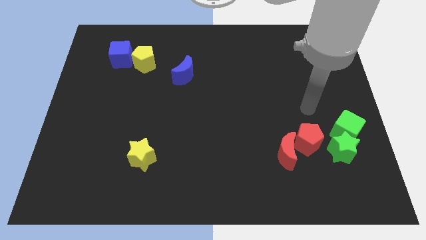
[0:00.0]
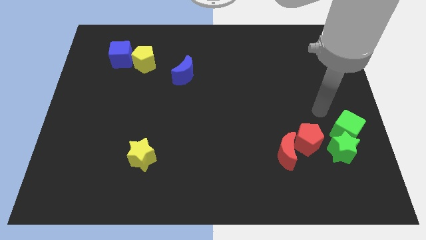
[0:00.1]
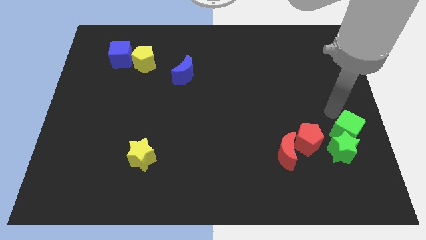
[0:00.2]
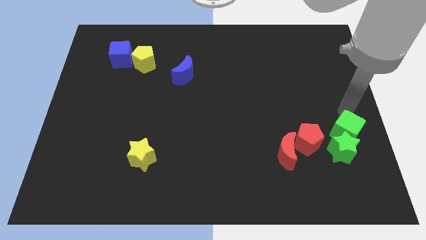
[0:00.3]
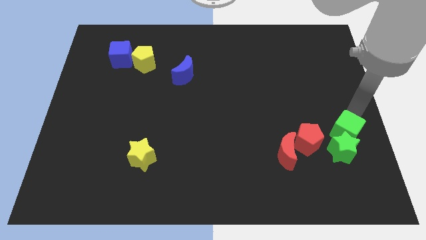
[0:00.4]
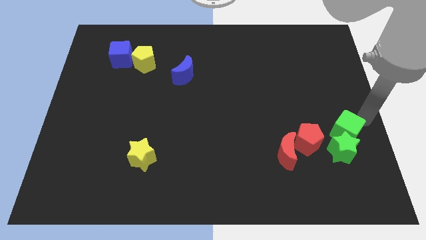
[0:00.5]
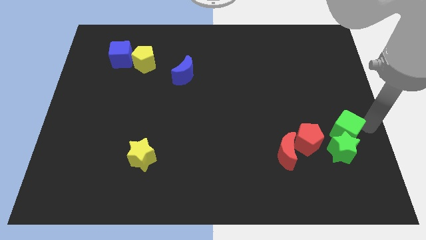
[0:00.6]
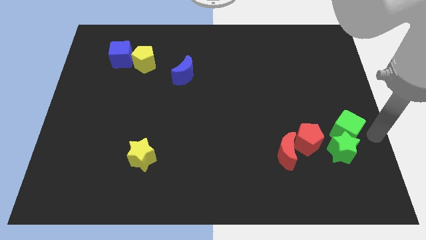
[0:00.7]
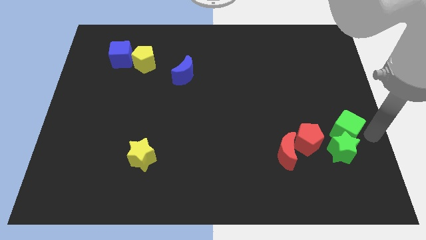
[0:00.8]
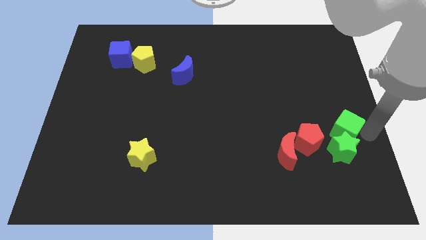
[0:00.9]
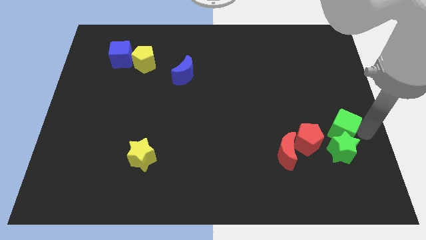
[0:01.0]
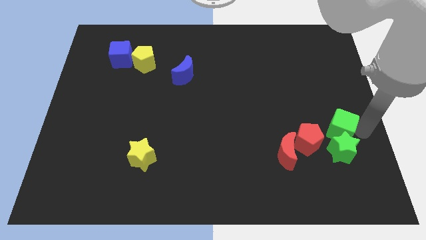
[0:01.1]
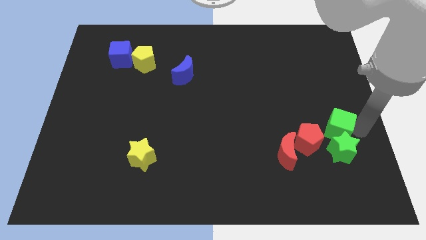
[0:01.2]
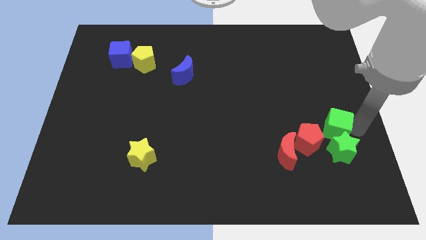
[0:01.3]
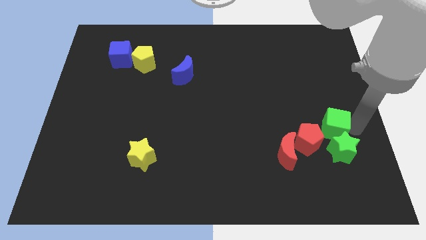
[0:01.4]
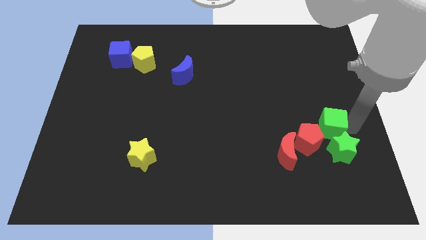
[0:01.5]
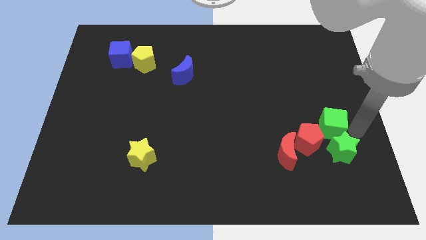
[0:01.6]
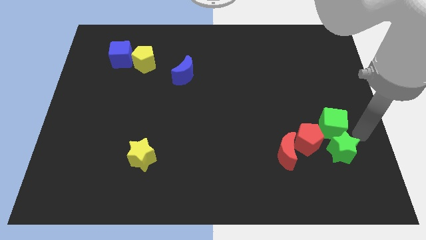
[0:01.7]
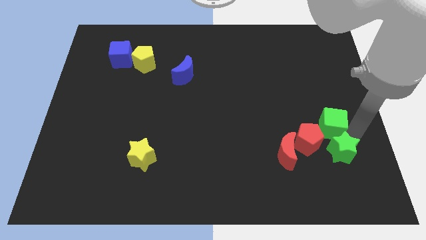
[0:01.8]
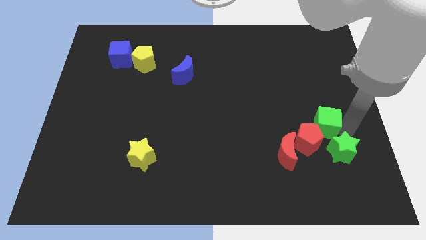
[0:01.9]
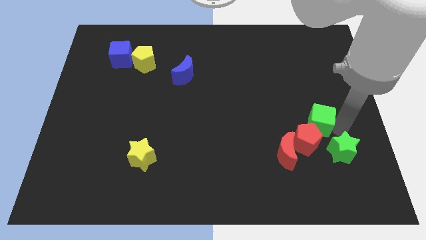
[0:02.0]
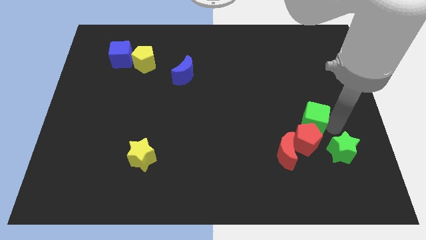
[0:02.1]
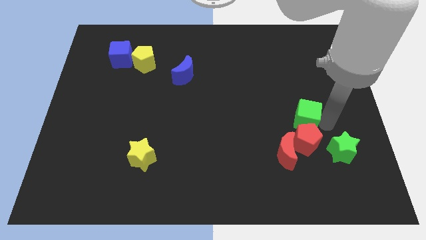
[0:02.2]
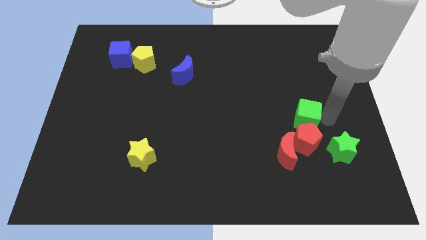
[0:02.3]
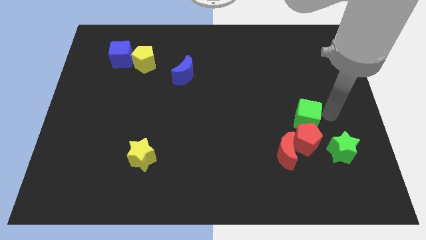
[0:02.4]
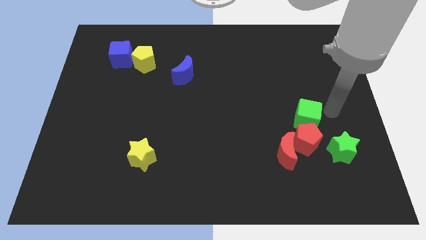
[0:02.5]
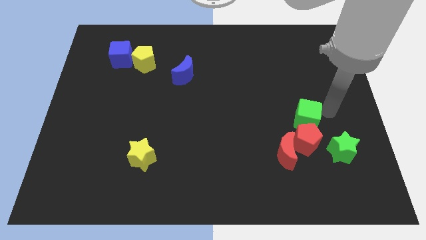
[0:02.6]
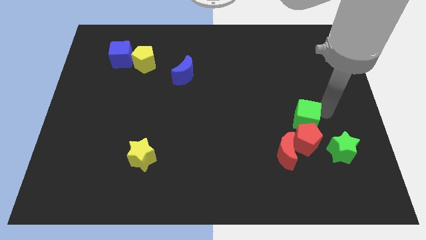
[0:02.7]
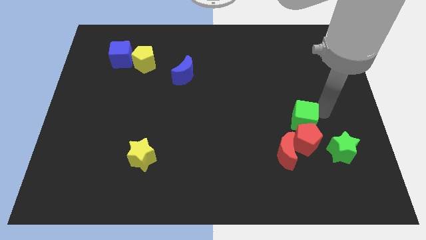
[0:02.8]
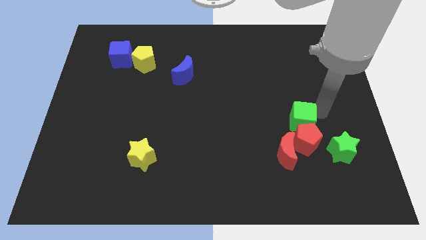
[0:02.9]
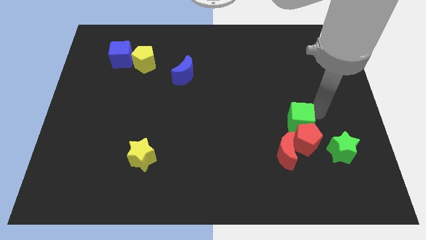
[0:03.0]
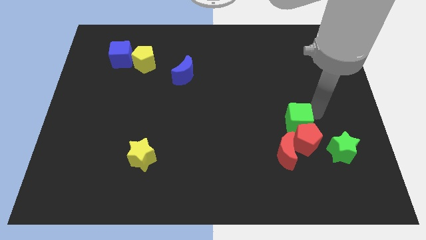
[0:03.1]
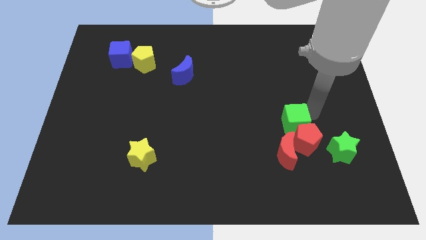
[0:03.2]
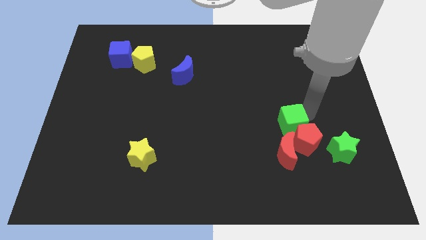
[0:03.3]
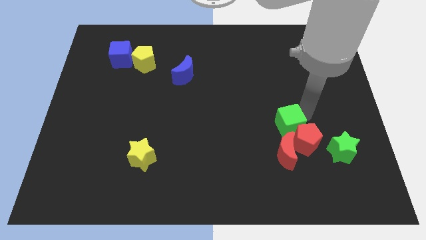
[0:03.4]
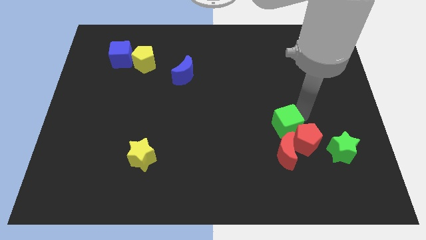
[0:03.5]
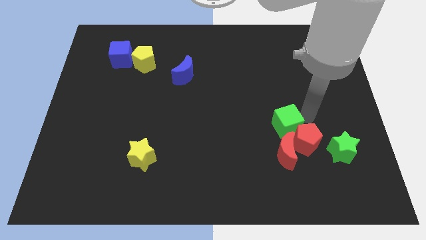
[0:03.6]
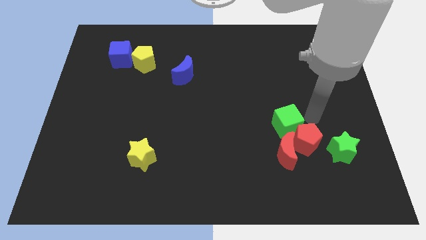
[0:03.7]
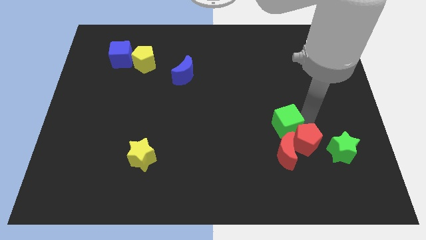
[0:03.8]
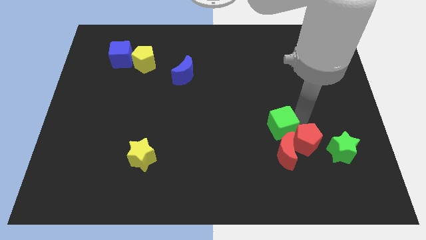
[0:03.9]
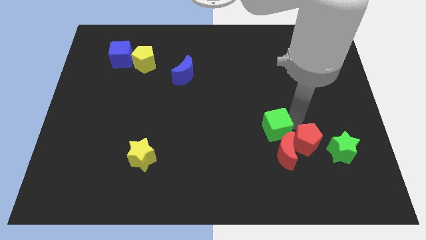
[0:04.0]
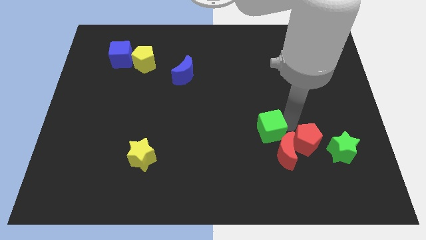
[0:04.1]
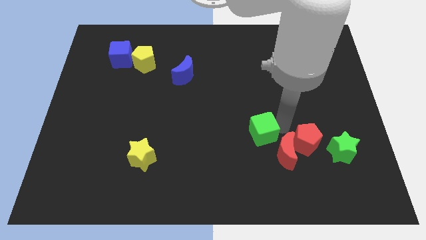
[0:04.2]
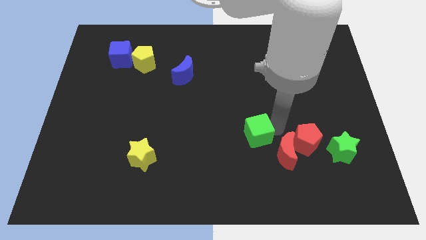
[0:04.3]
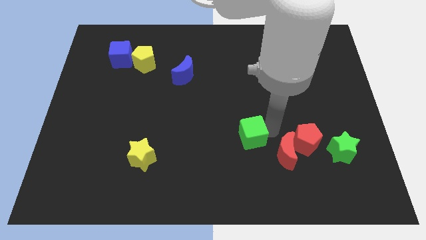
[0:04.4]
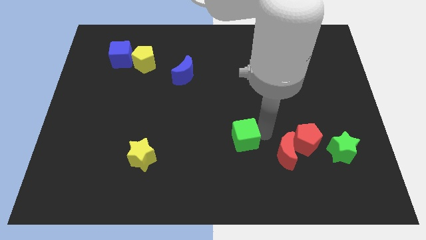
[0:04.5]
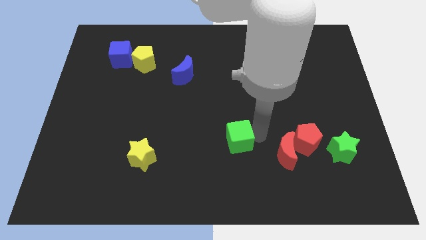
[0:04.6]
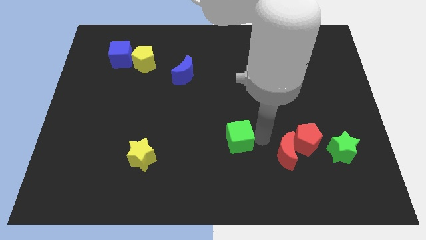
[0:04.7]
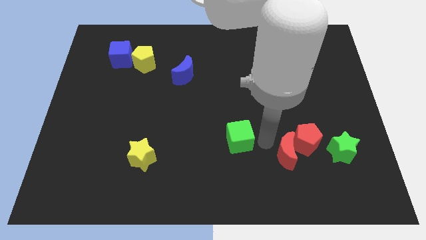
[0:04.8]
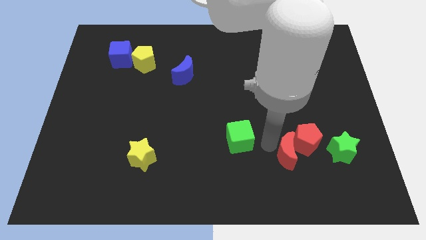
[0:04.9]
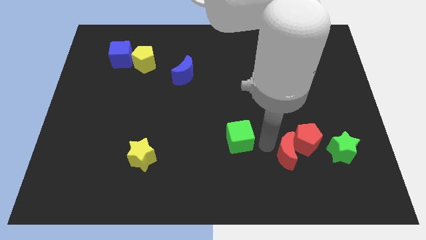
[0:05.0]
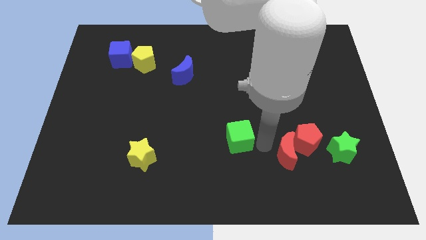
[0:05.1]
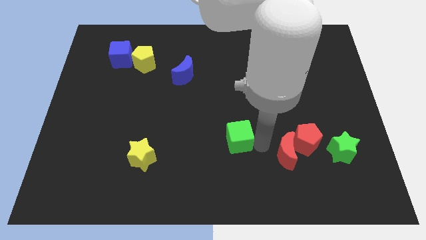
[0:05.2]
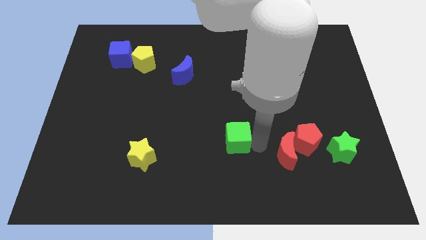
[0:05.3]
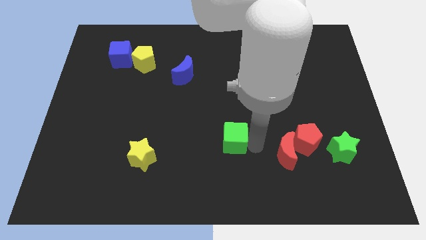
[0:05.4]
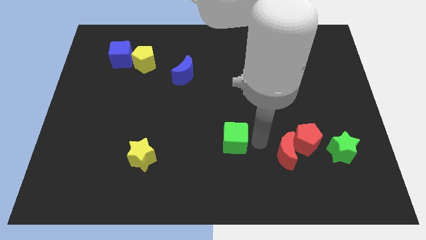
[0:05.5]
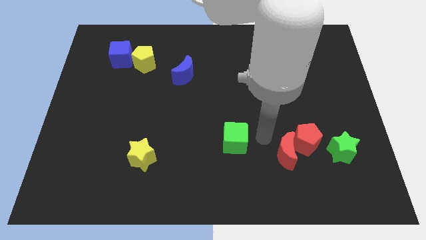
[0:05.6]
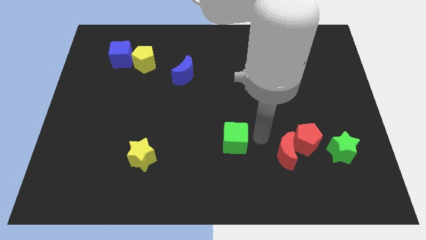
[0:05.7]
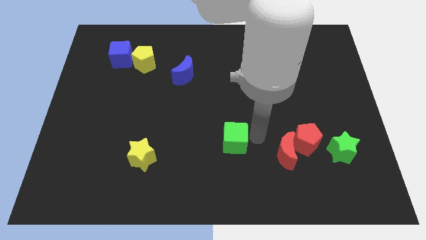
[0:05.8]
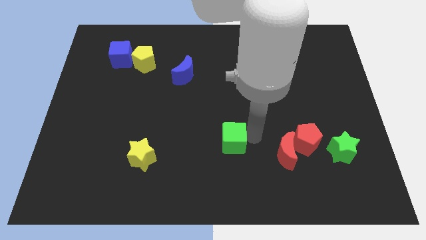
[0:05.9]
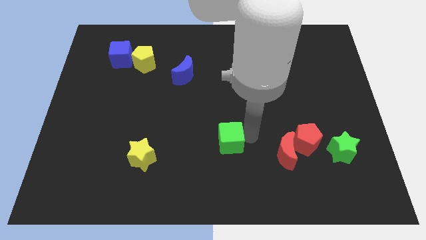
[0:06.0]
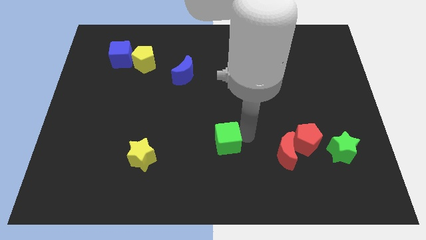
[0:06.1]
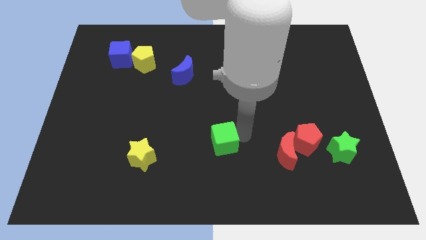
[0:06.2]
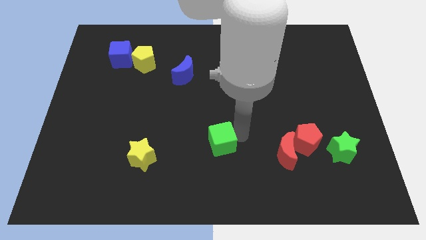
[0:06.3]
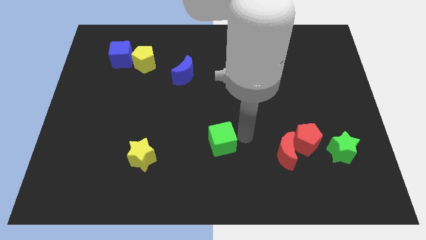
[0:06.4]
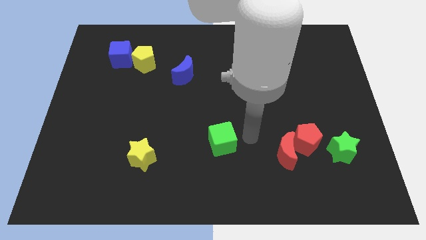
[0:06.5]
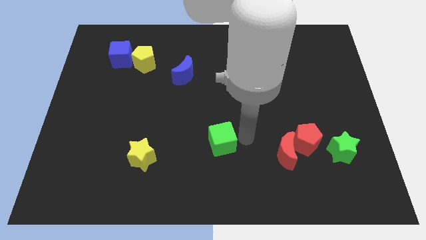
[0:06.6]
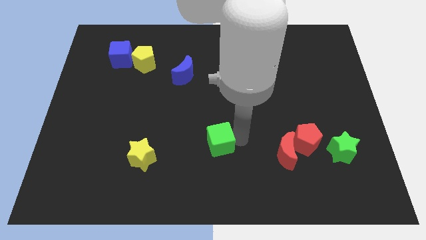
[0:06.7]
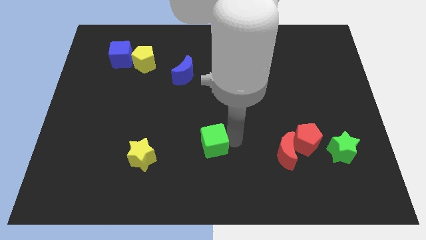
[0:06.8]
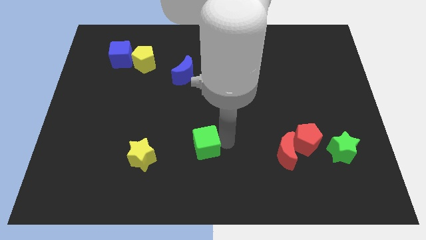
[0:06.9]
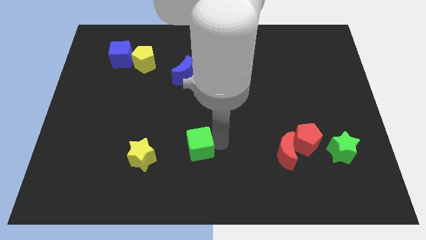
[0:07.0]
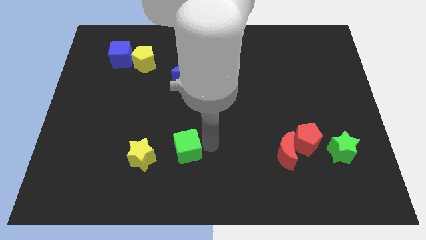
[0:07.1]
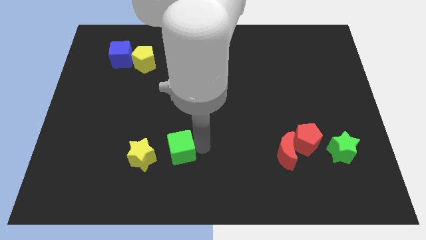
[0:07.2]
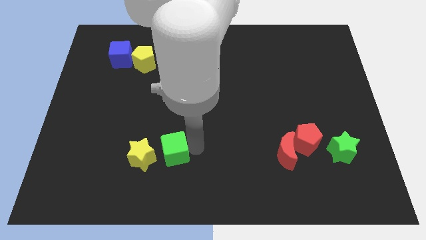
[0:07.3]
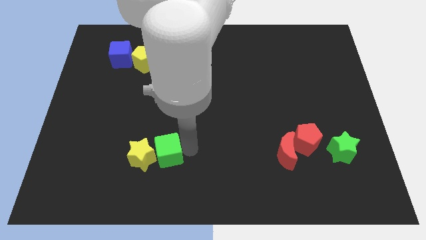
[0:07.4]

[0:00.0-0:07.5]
push the green cube next to the yellow star
